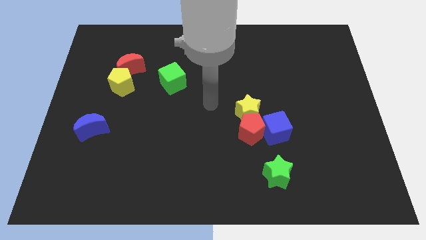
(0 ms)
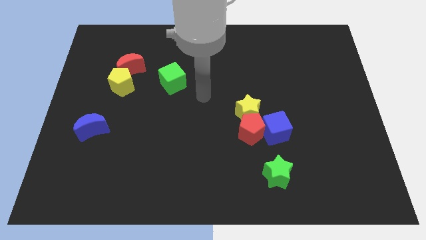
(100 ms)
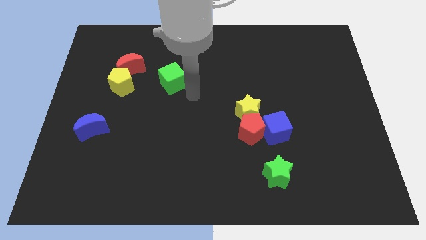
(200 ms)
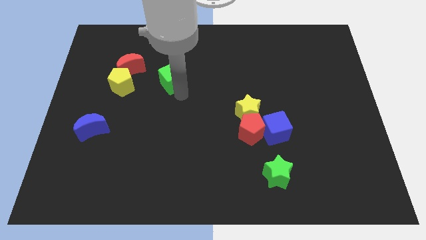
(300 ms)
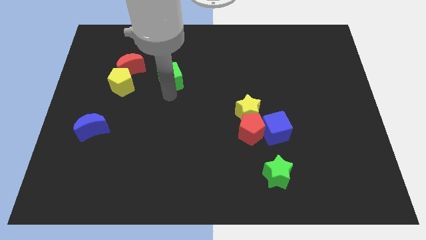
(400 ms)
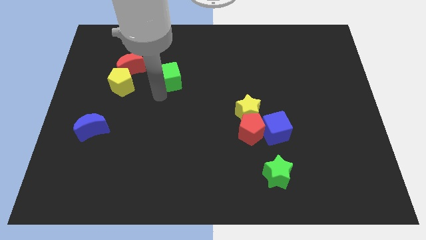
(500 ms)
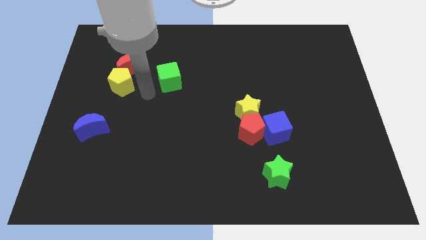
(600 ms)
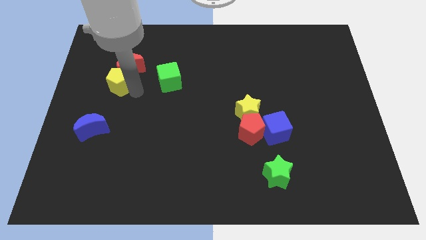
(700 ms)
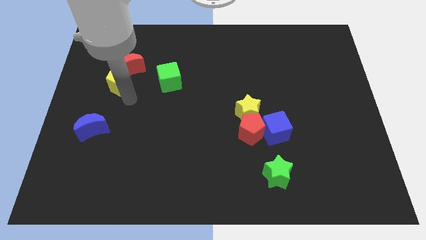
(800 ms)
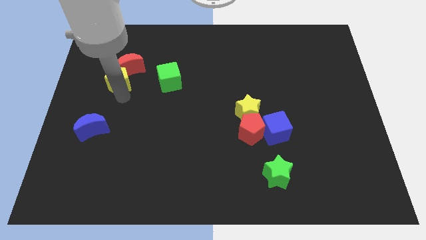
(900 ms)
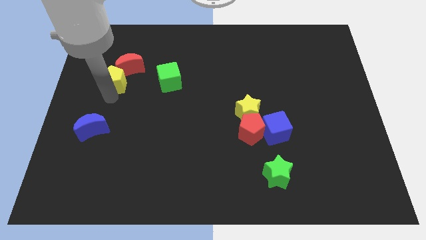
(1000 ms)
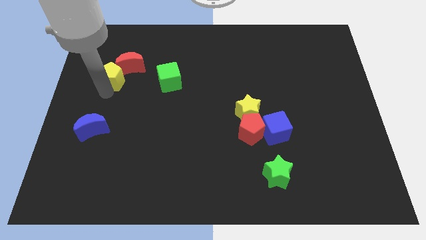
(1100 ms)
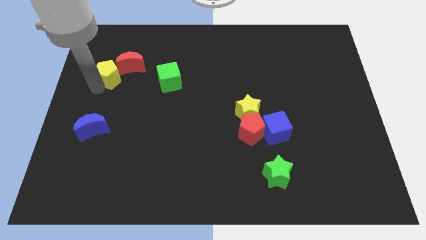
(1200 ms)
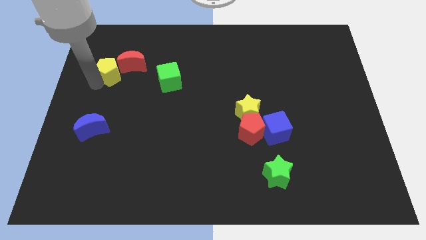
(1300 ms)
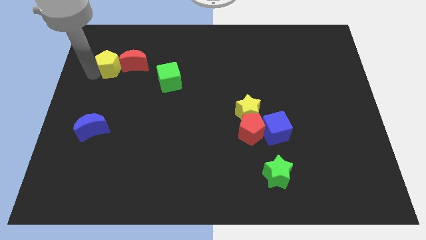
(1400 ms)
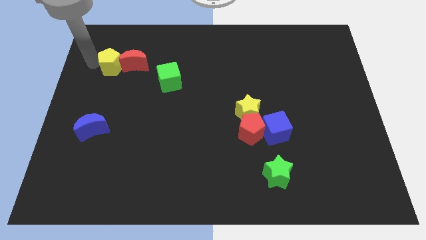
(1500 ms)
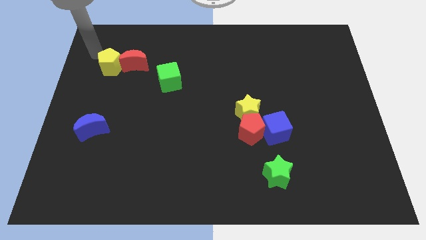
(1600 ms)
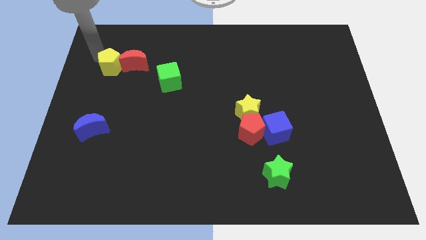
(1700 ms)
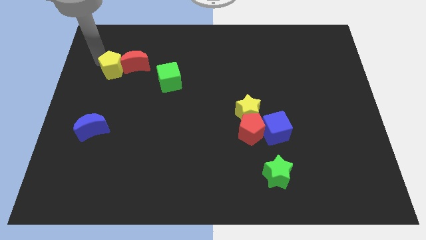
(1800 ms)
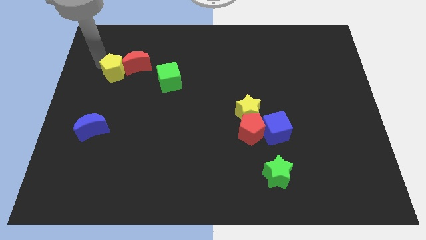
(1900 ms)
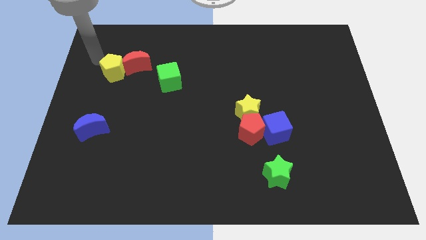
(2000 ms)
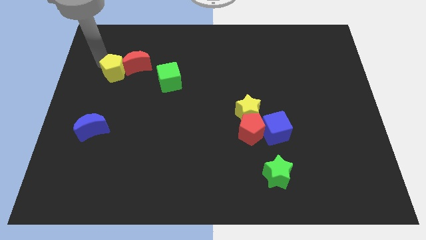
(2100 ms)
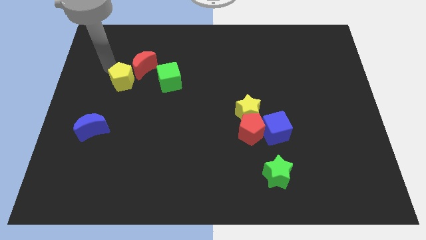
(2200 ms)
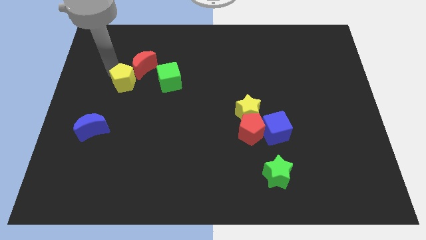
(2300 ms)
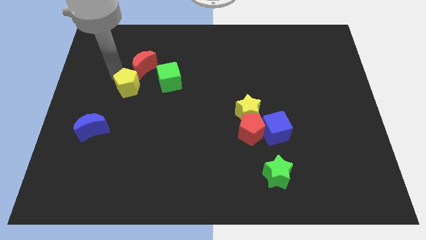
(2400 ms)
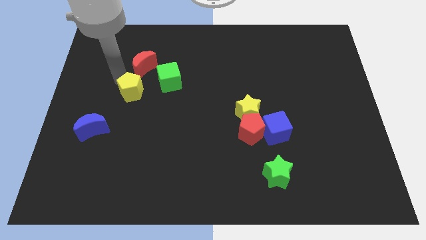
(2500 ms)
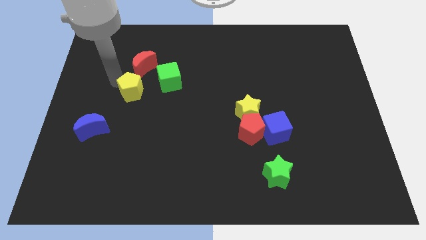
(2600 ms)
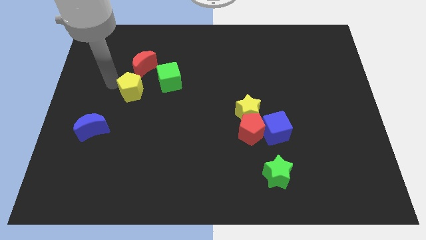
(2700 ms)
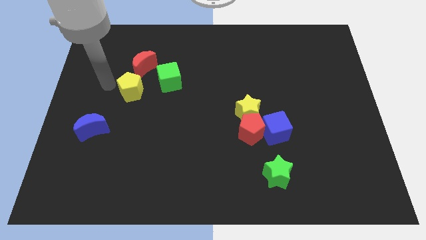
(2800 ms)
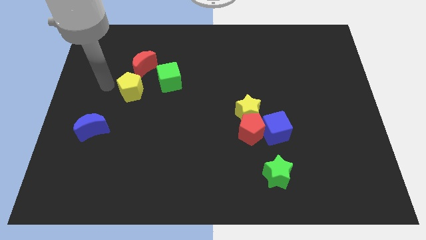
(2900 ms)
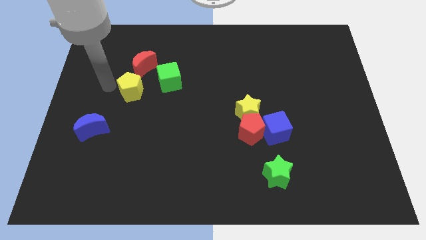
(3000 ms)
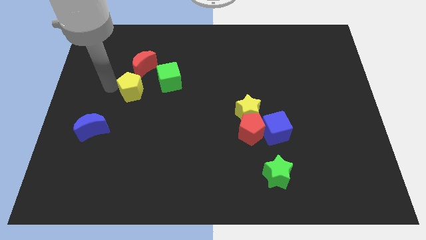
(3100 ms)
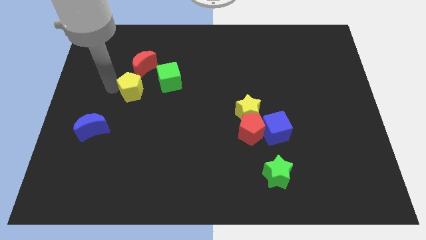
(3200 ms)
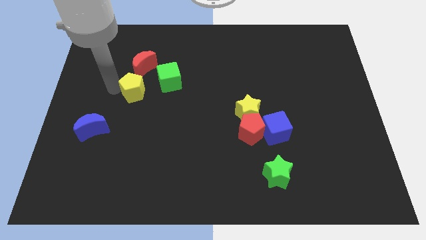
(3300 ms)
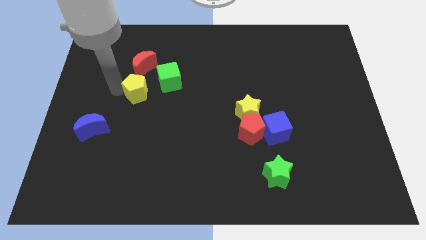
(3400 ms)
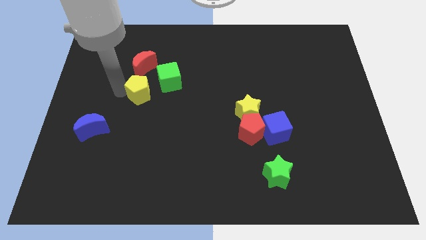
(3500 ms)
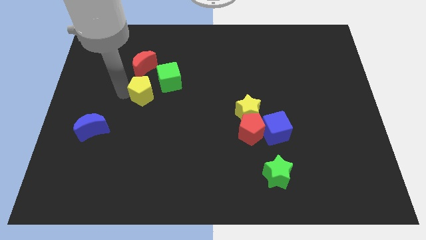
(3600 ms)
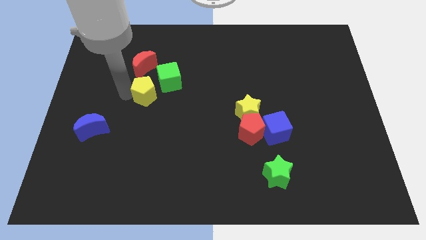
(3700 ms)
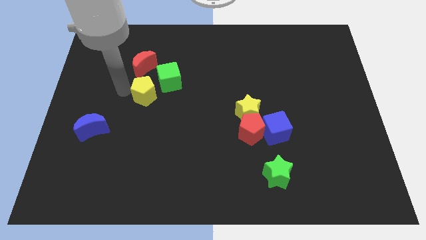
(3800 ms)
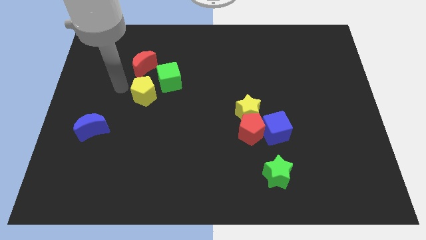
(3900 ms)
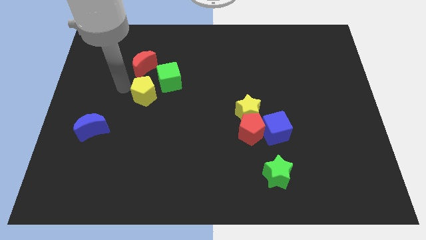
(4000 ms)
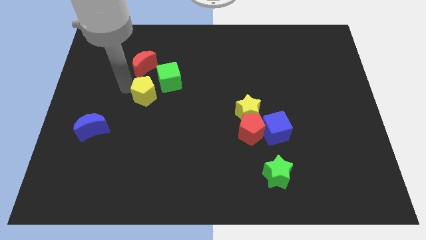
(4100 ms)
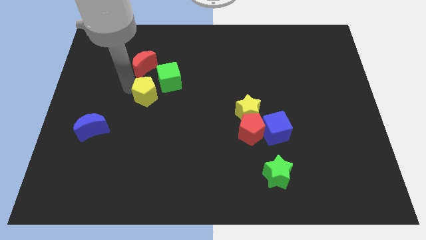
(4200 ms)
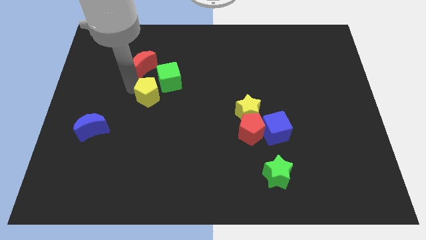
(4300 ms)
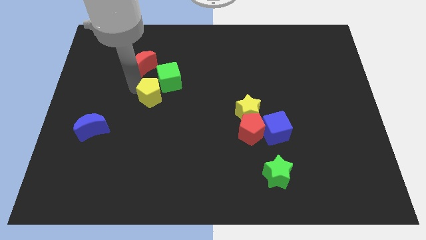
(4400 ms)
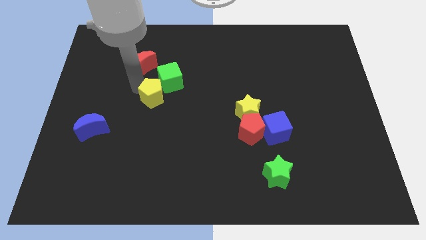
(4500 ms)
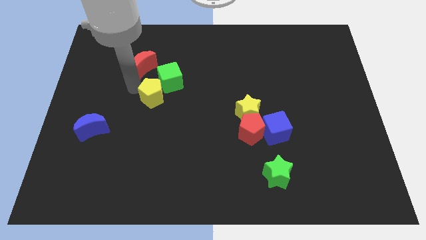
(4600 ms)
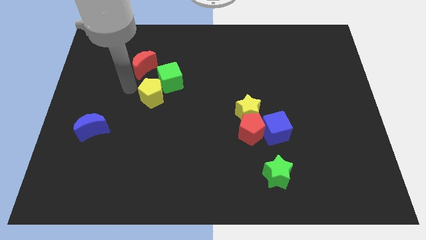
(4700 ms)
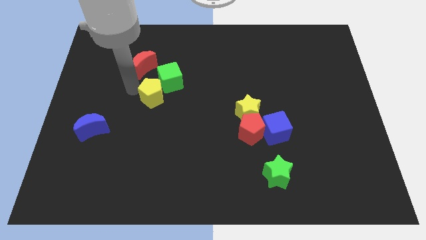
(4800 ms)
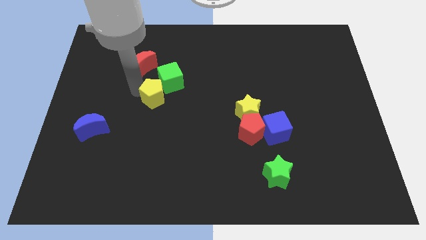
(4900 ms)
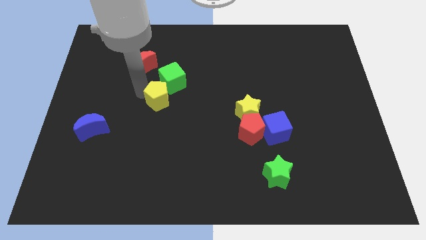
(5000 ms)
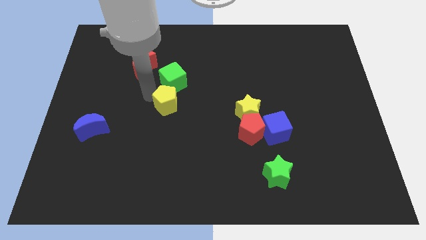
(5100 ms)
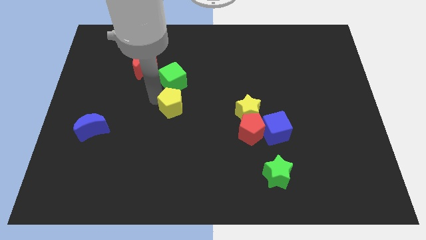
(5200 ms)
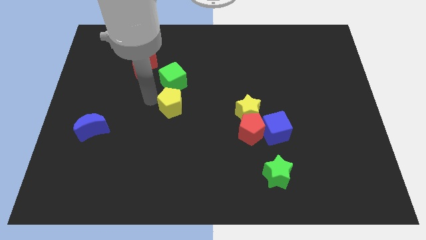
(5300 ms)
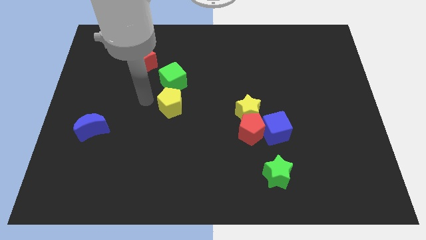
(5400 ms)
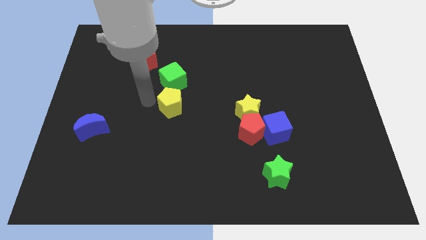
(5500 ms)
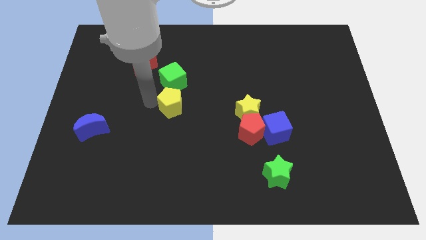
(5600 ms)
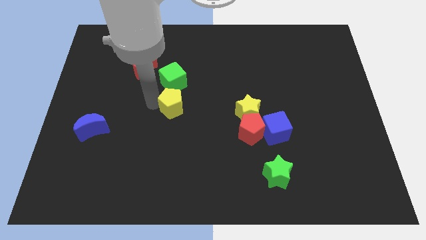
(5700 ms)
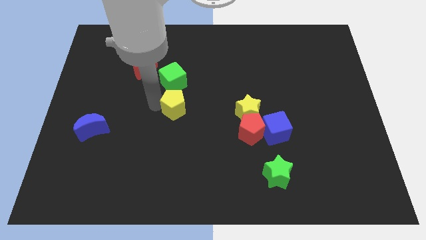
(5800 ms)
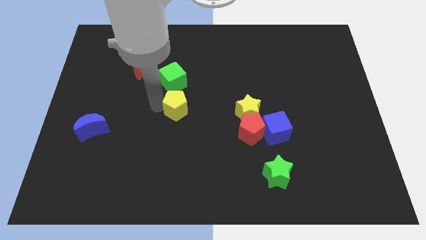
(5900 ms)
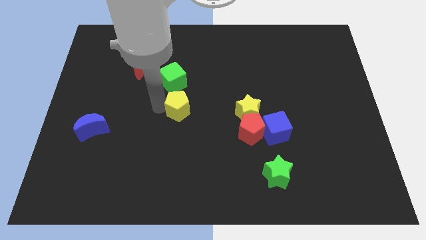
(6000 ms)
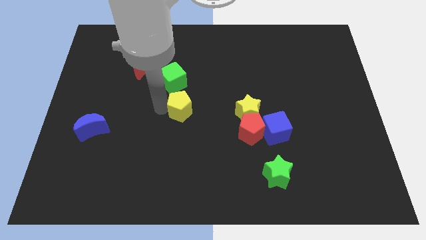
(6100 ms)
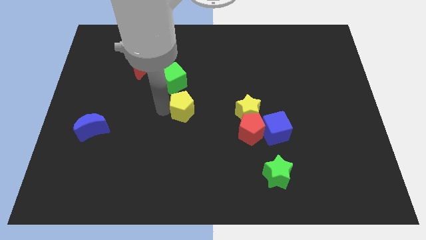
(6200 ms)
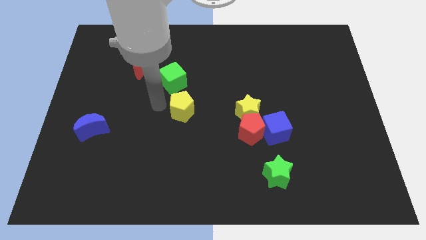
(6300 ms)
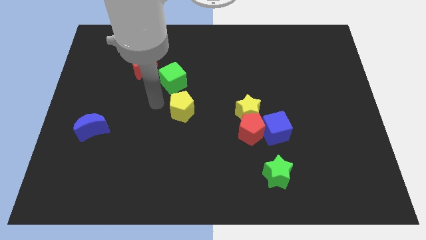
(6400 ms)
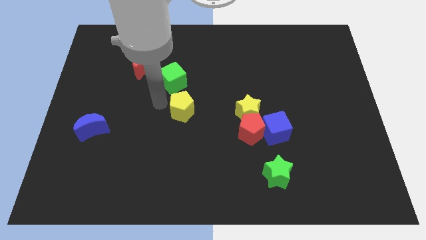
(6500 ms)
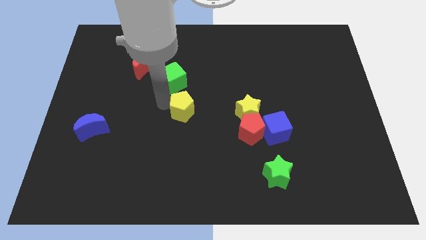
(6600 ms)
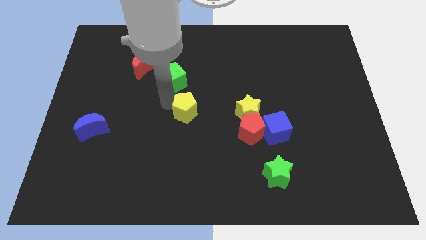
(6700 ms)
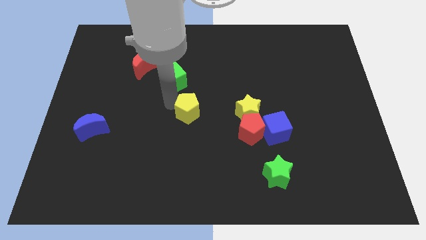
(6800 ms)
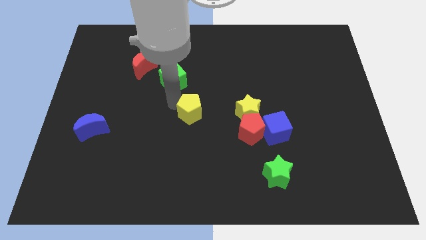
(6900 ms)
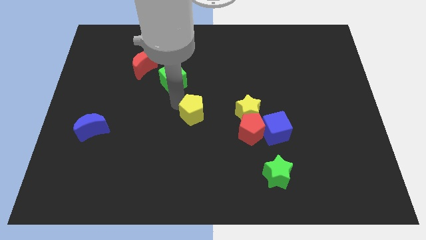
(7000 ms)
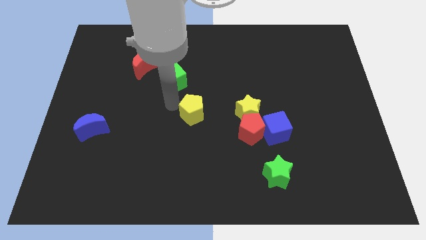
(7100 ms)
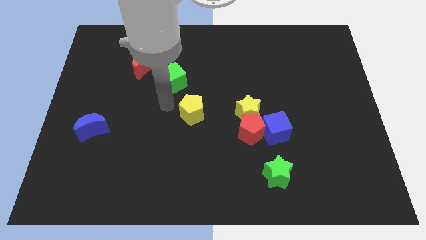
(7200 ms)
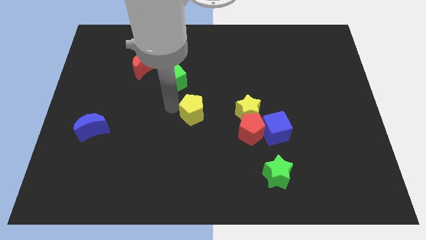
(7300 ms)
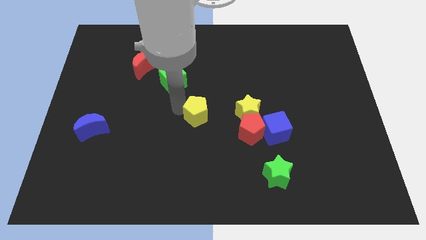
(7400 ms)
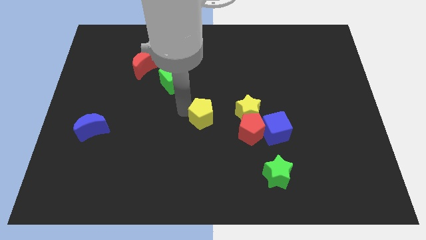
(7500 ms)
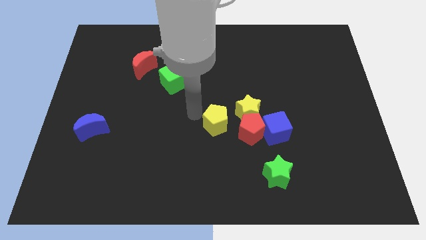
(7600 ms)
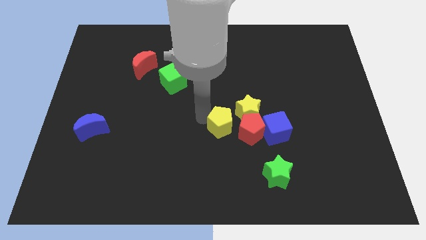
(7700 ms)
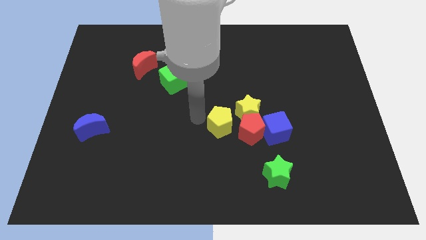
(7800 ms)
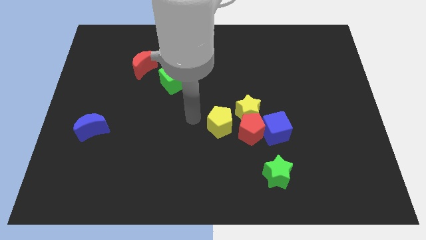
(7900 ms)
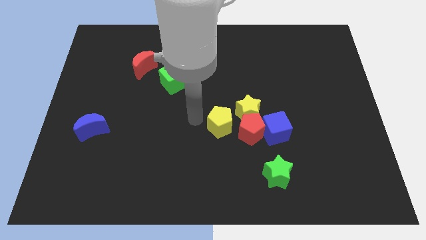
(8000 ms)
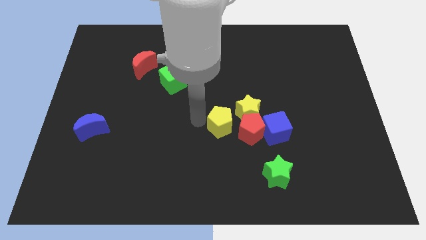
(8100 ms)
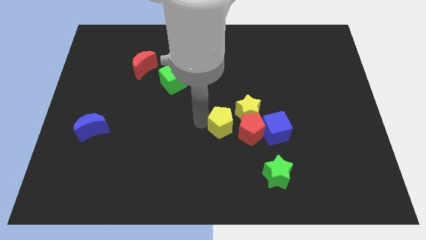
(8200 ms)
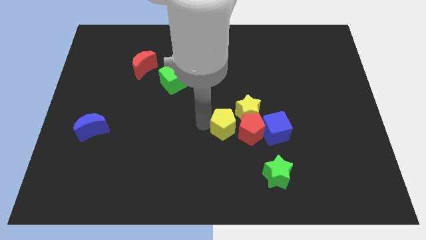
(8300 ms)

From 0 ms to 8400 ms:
push the yellow pentagon close to the red pentagon
